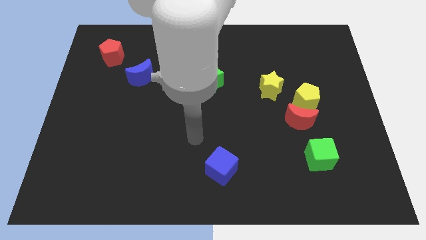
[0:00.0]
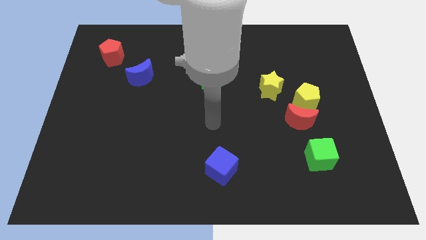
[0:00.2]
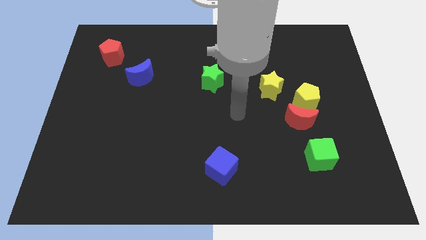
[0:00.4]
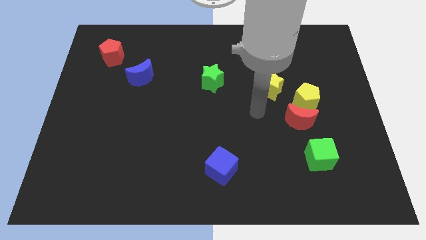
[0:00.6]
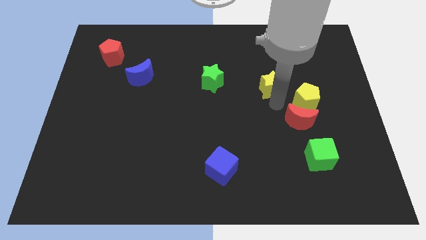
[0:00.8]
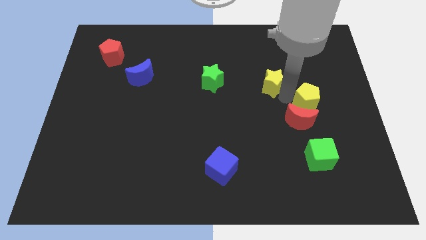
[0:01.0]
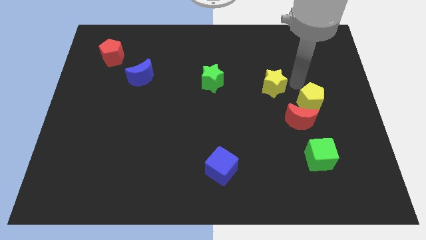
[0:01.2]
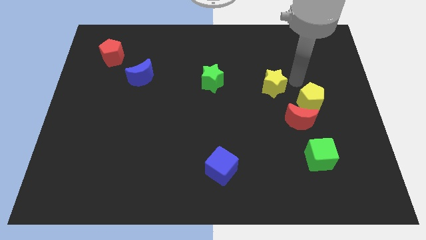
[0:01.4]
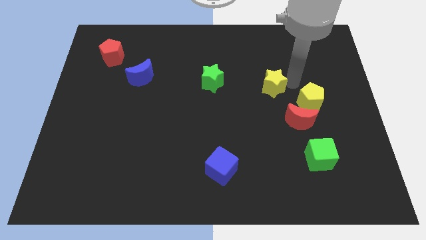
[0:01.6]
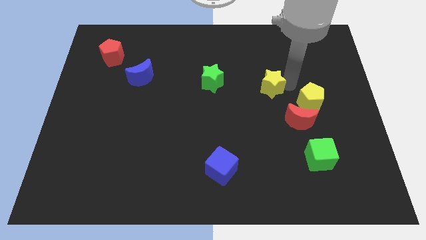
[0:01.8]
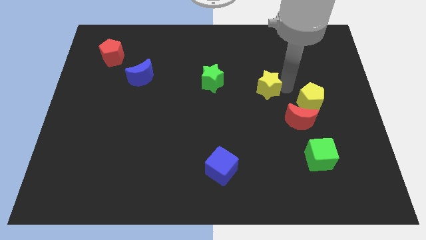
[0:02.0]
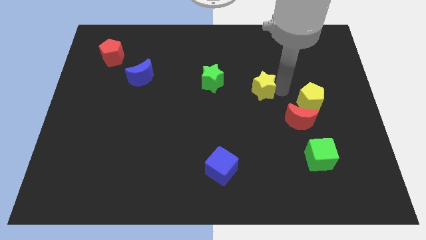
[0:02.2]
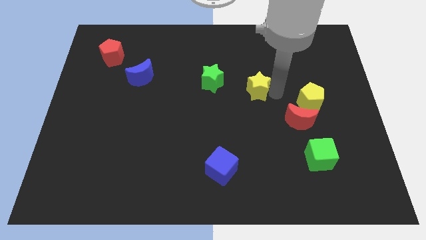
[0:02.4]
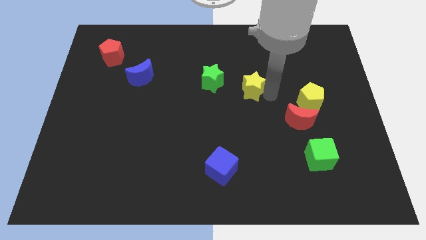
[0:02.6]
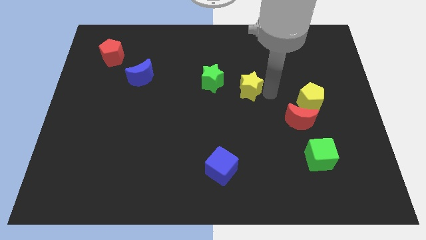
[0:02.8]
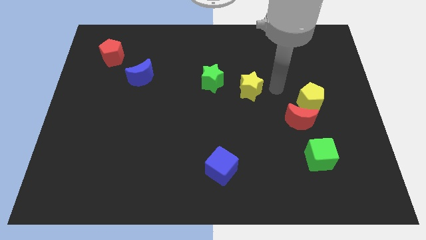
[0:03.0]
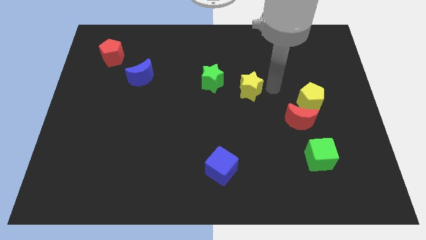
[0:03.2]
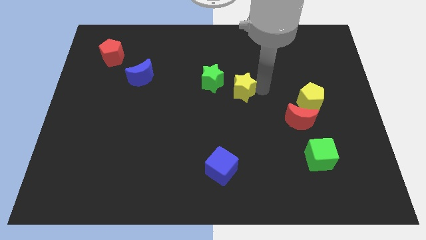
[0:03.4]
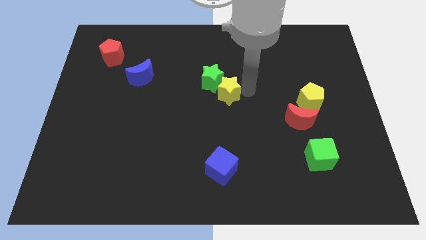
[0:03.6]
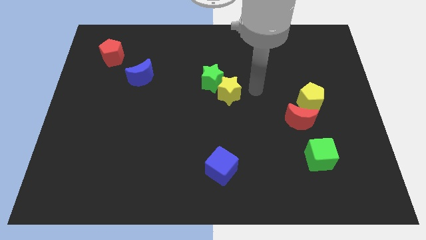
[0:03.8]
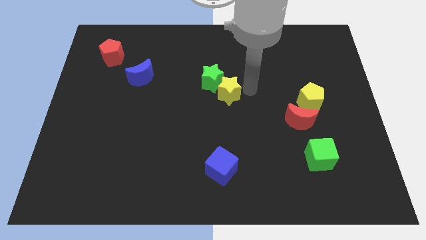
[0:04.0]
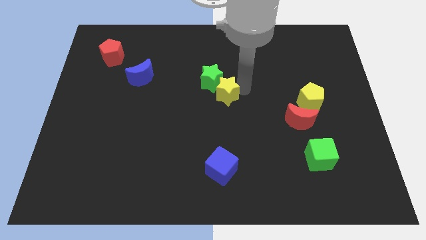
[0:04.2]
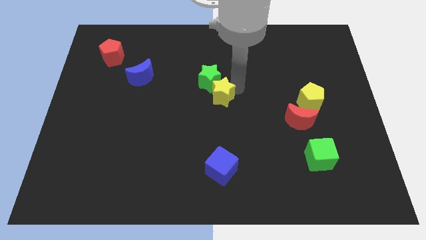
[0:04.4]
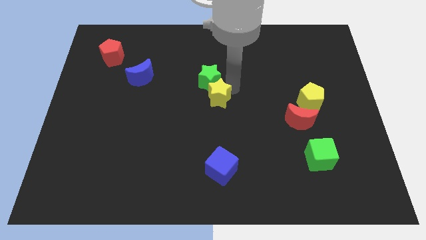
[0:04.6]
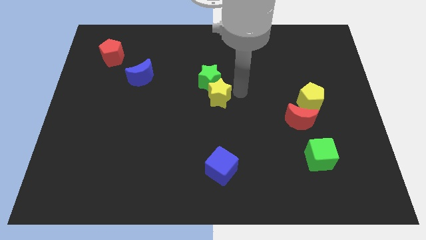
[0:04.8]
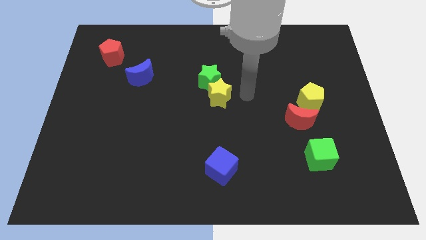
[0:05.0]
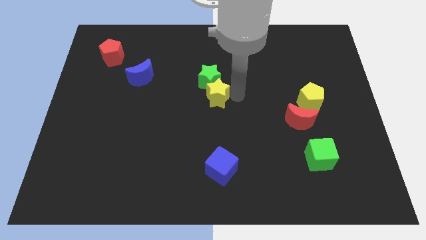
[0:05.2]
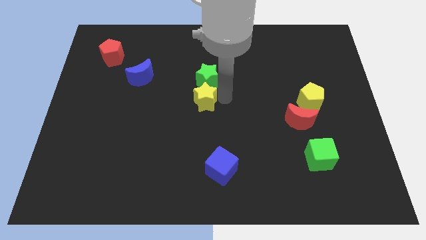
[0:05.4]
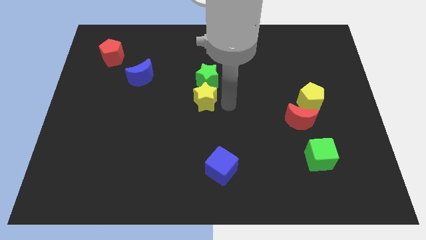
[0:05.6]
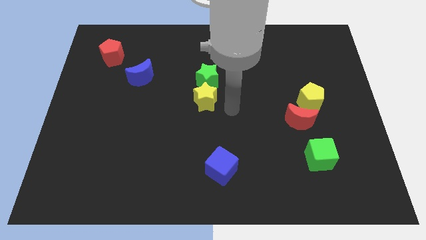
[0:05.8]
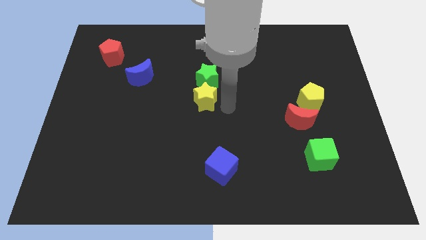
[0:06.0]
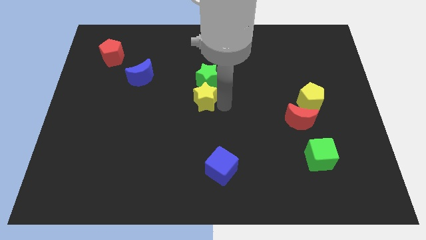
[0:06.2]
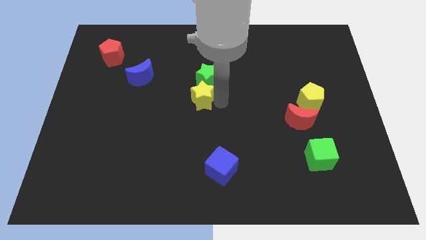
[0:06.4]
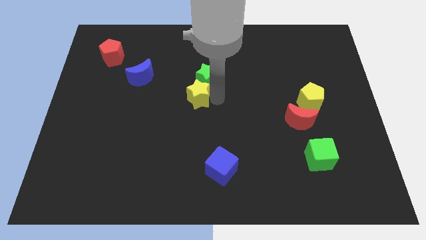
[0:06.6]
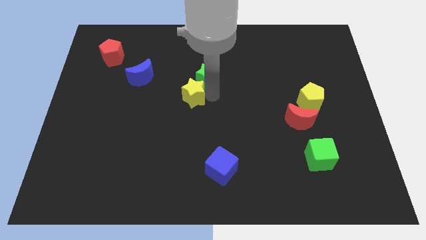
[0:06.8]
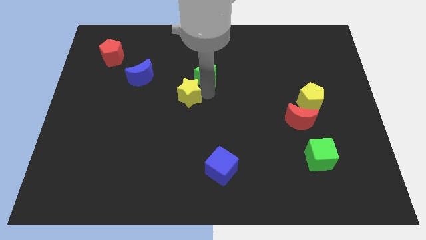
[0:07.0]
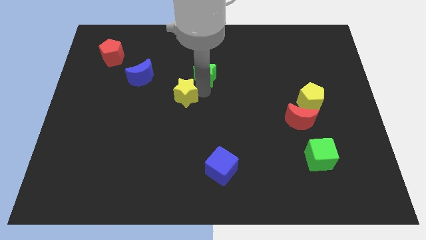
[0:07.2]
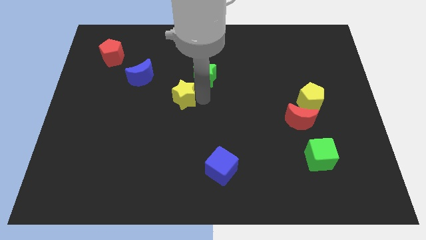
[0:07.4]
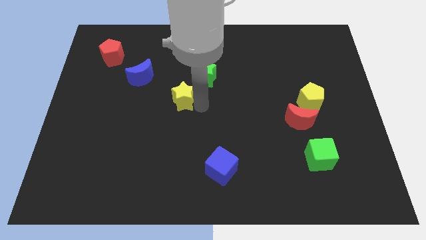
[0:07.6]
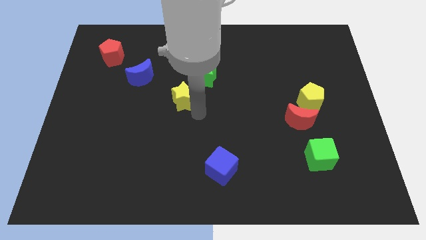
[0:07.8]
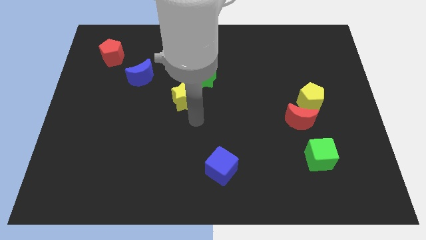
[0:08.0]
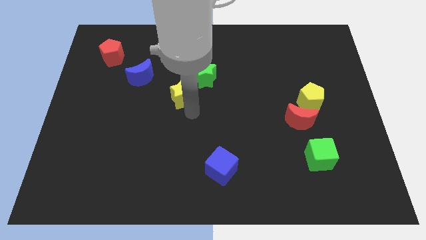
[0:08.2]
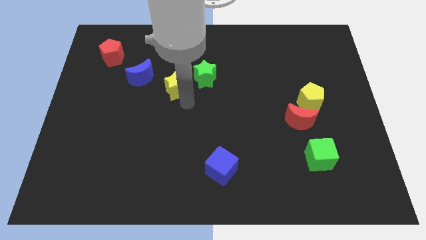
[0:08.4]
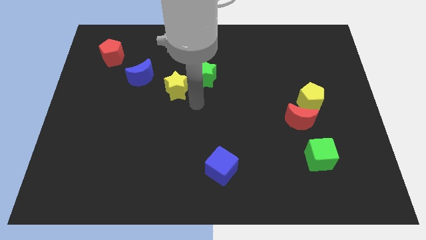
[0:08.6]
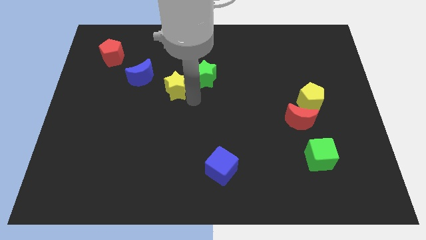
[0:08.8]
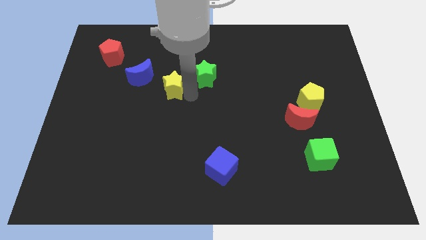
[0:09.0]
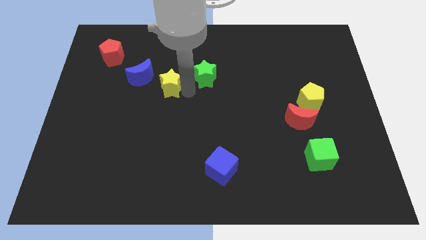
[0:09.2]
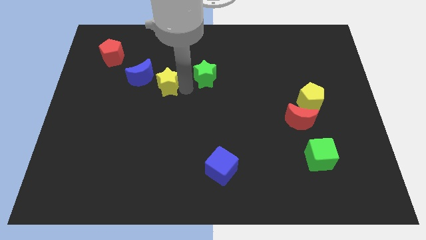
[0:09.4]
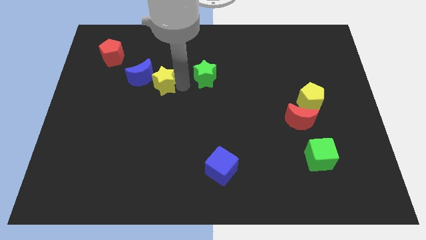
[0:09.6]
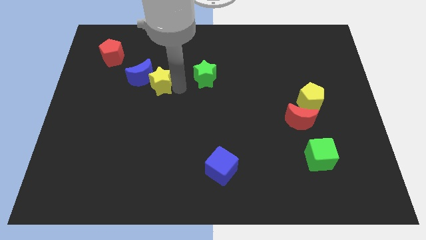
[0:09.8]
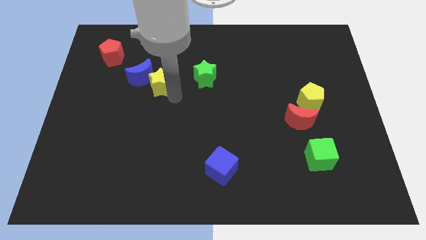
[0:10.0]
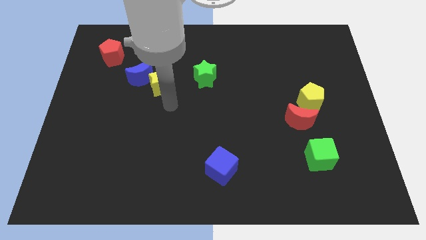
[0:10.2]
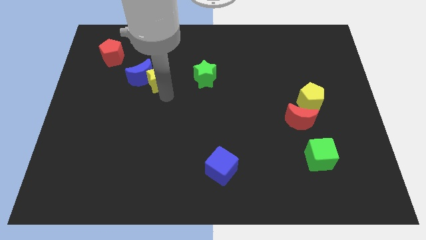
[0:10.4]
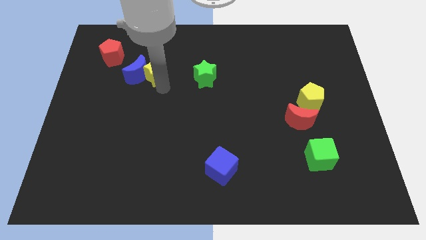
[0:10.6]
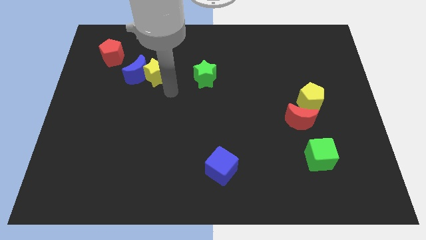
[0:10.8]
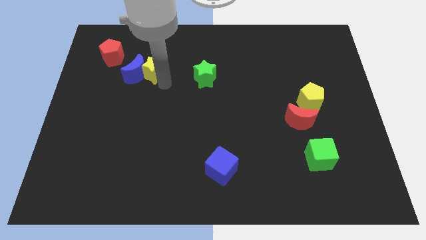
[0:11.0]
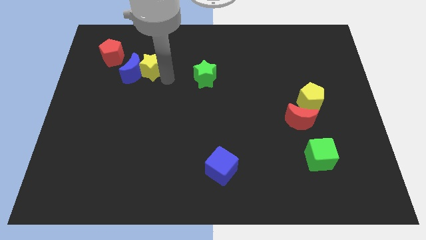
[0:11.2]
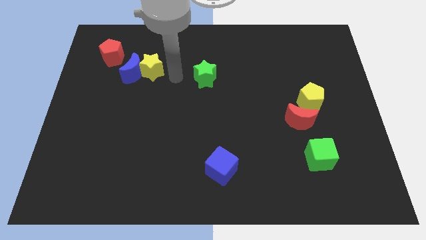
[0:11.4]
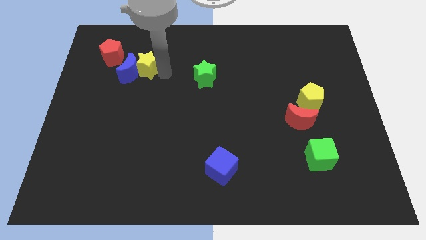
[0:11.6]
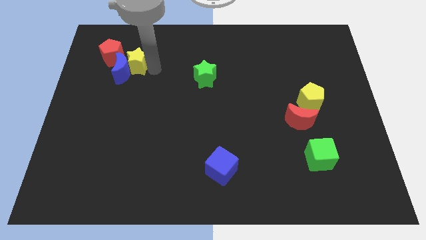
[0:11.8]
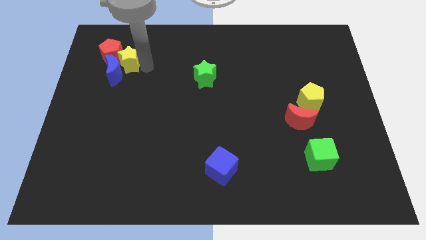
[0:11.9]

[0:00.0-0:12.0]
move the yellow star close to the red pentagon

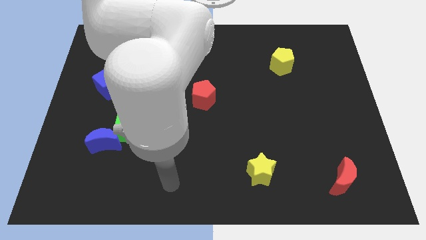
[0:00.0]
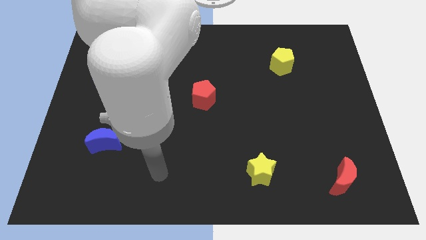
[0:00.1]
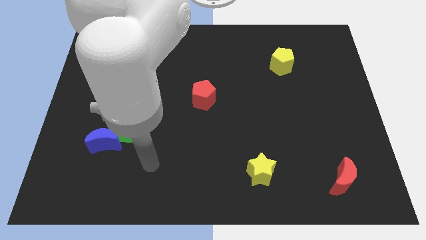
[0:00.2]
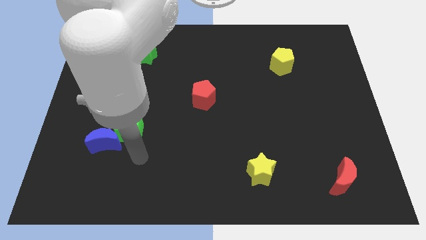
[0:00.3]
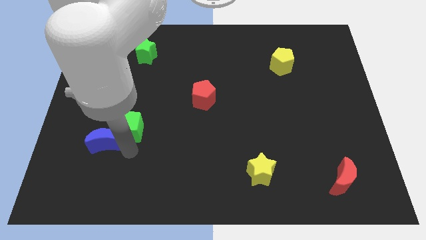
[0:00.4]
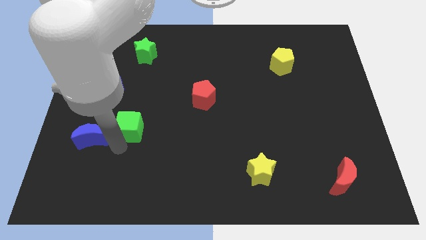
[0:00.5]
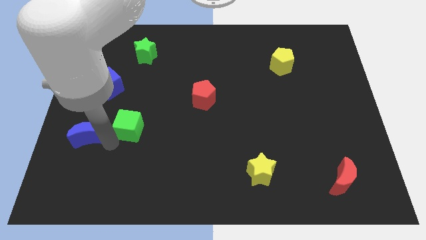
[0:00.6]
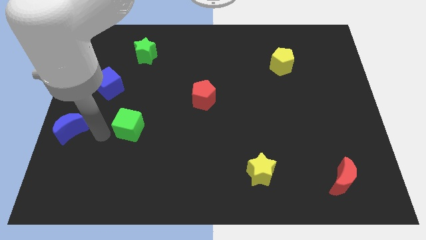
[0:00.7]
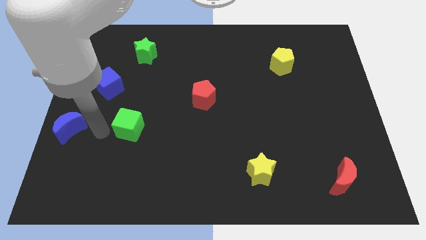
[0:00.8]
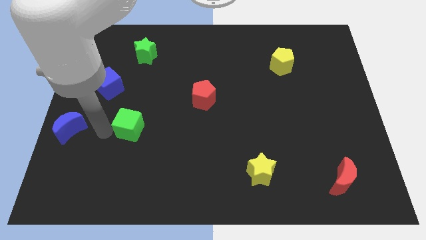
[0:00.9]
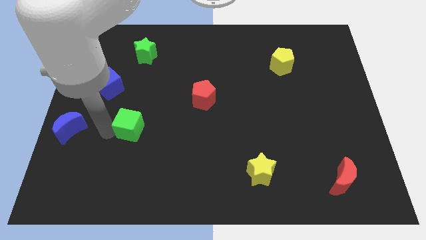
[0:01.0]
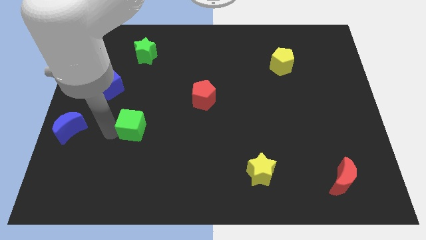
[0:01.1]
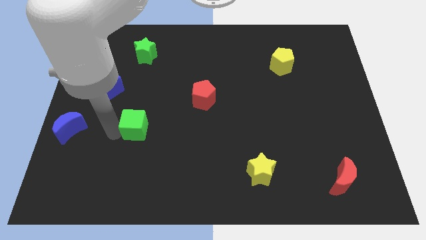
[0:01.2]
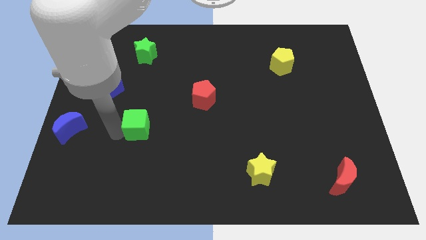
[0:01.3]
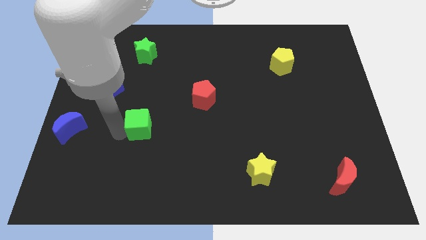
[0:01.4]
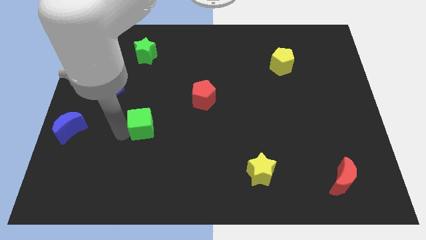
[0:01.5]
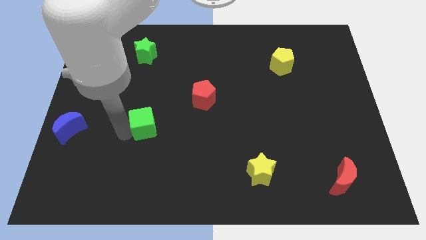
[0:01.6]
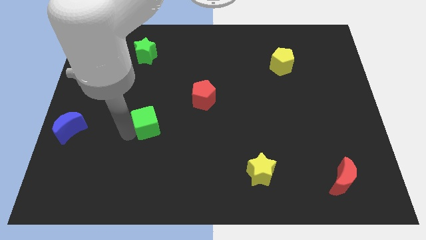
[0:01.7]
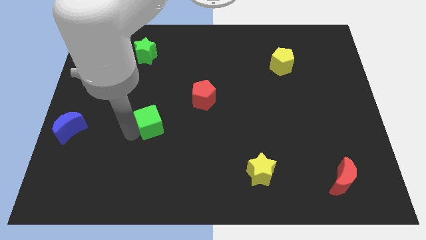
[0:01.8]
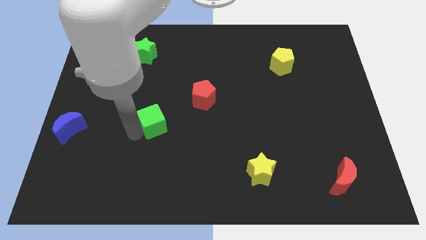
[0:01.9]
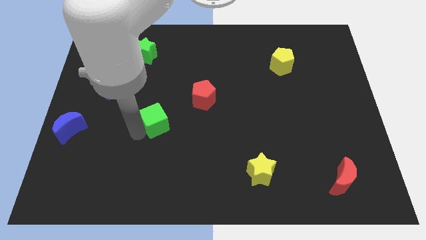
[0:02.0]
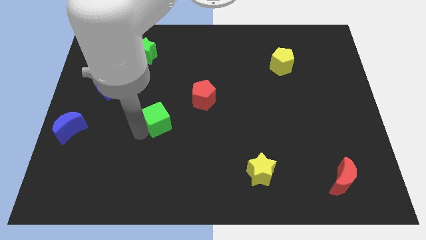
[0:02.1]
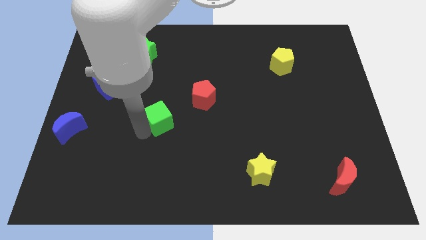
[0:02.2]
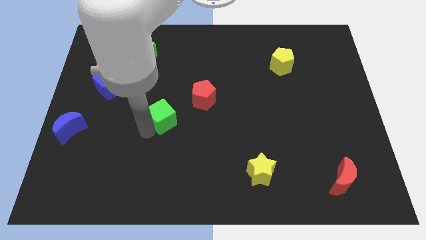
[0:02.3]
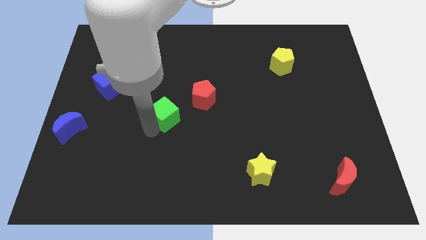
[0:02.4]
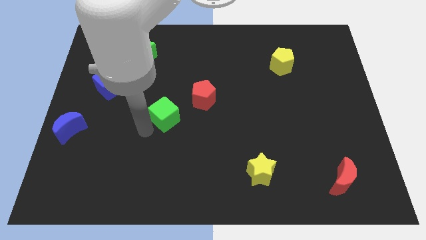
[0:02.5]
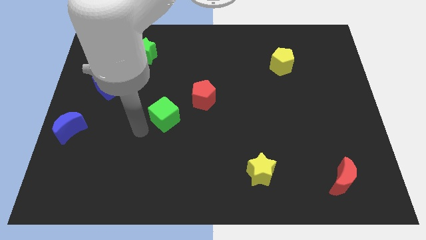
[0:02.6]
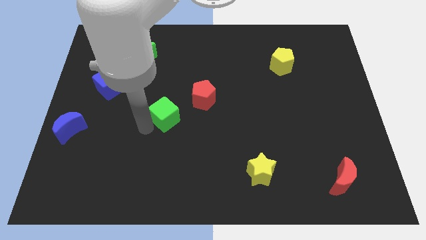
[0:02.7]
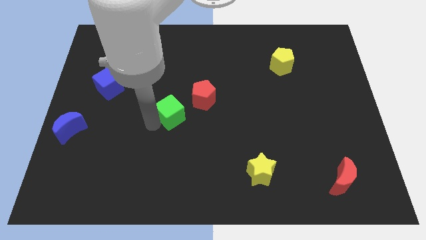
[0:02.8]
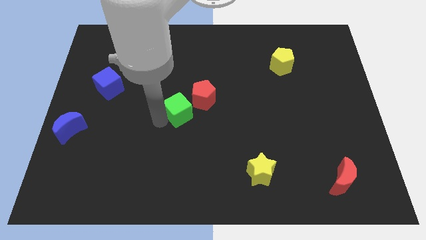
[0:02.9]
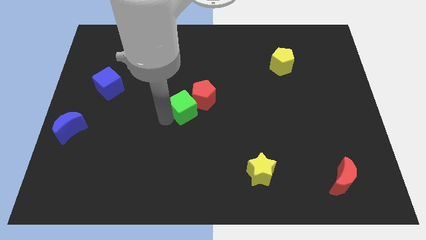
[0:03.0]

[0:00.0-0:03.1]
put the green cube to the red pentagon
